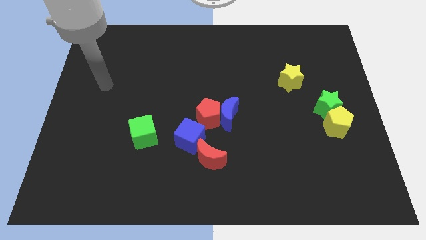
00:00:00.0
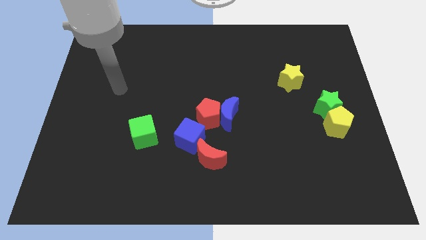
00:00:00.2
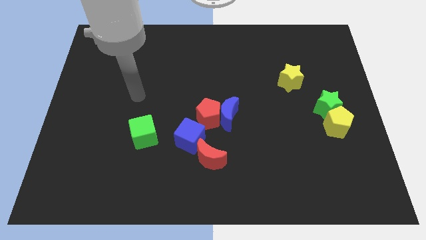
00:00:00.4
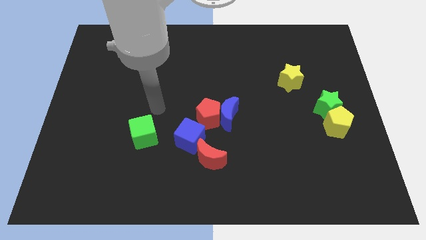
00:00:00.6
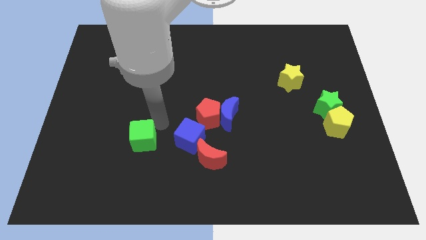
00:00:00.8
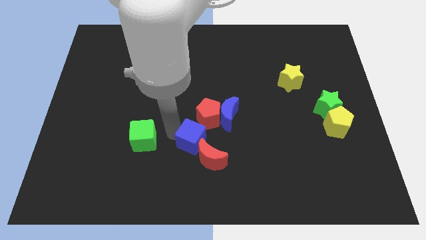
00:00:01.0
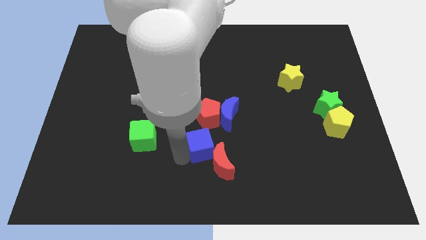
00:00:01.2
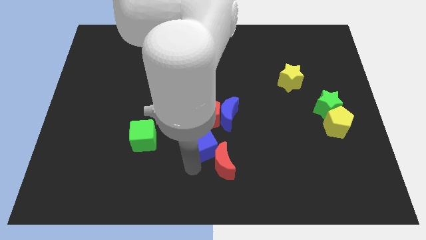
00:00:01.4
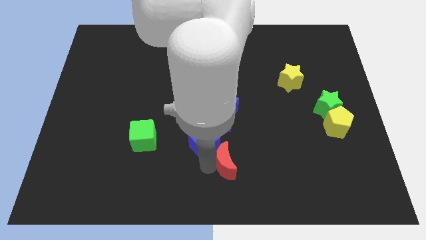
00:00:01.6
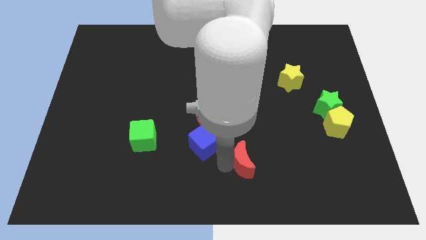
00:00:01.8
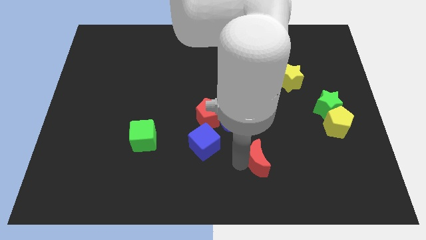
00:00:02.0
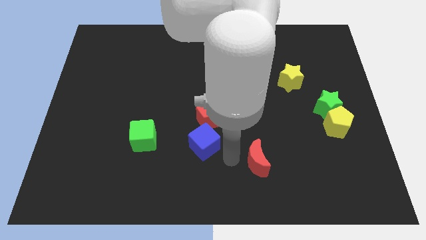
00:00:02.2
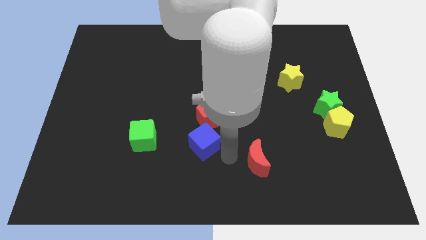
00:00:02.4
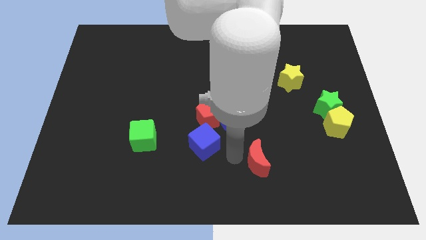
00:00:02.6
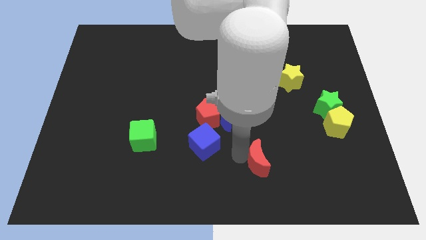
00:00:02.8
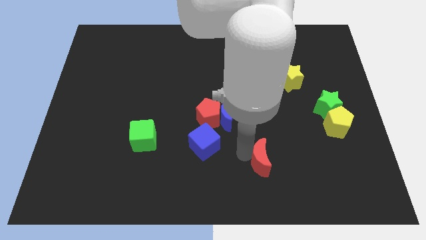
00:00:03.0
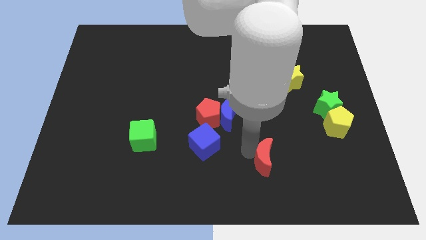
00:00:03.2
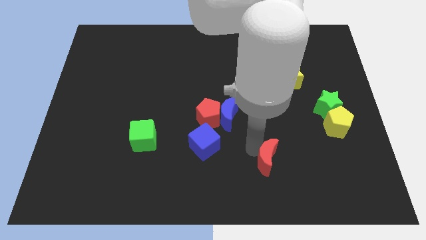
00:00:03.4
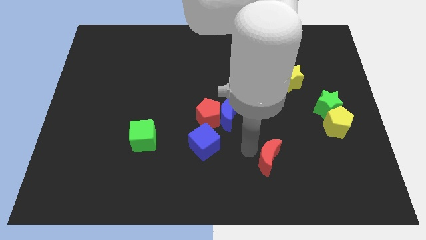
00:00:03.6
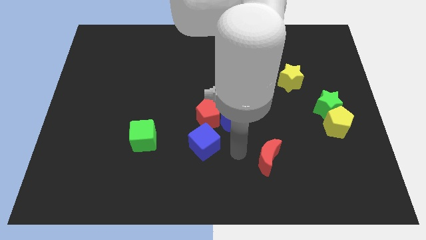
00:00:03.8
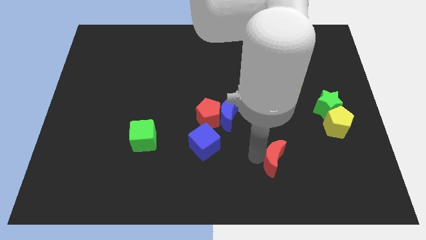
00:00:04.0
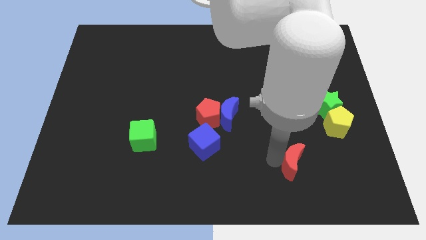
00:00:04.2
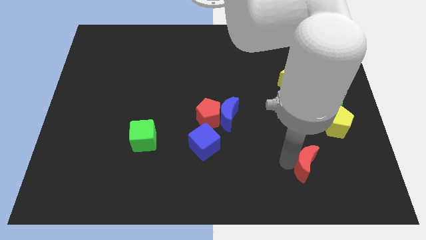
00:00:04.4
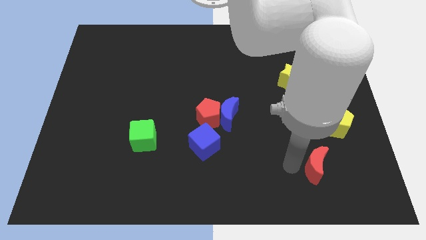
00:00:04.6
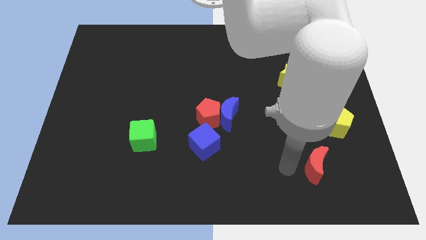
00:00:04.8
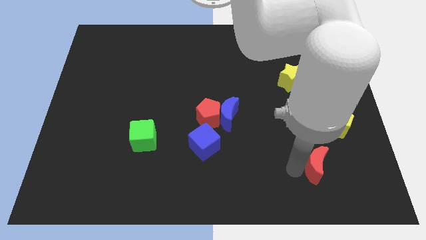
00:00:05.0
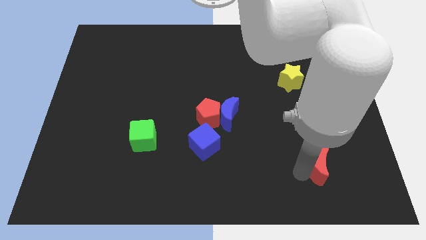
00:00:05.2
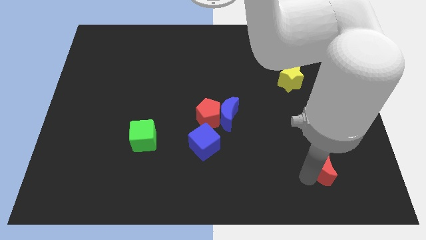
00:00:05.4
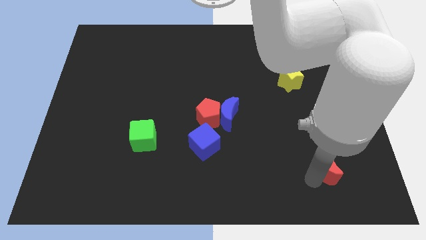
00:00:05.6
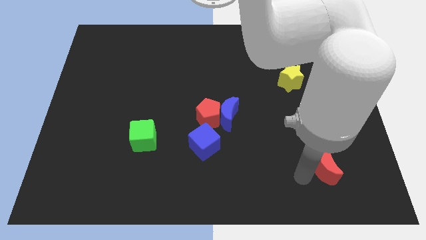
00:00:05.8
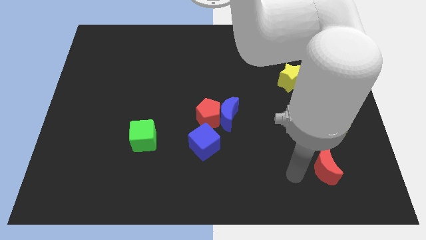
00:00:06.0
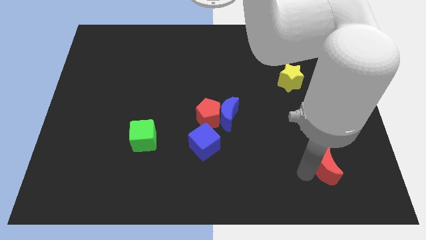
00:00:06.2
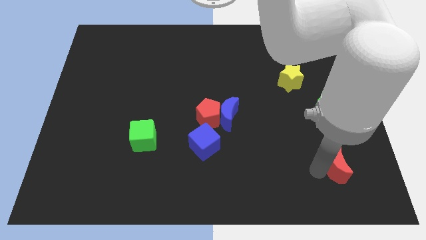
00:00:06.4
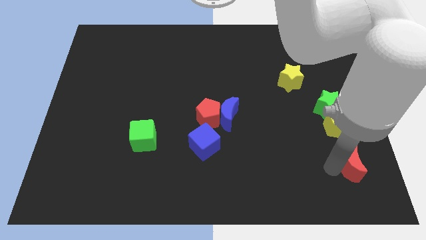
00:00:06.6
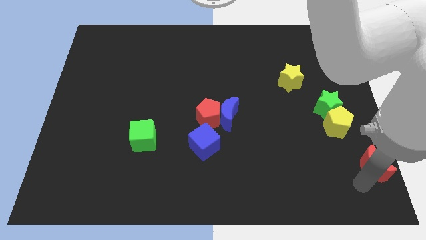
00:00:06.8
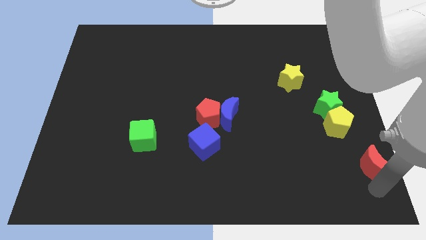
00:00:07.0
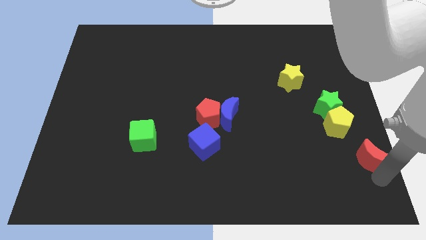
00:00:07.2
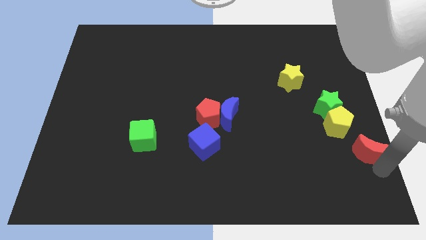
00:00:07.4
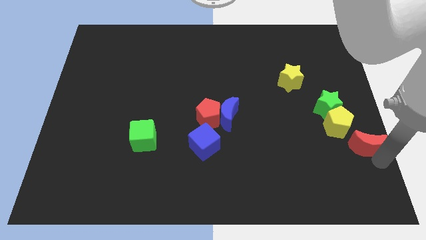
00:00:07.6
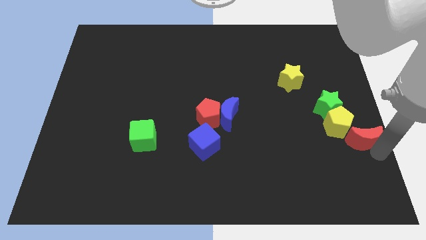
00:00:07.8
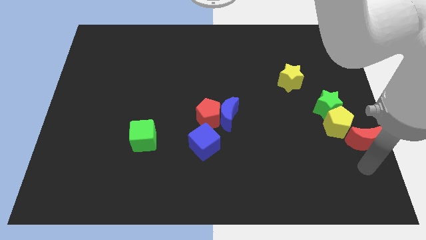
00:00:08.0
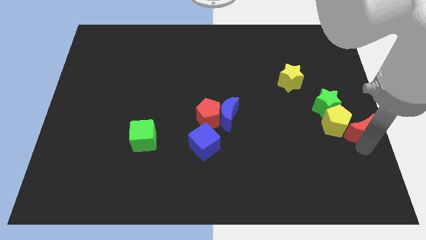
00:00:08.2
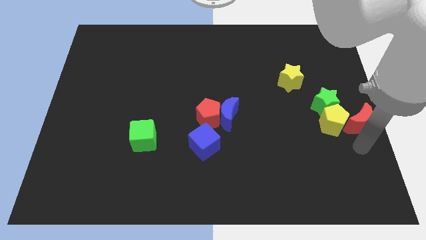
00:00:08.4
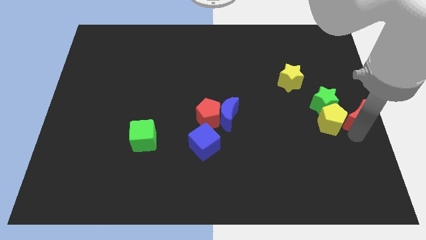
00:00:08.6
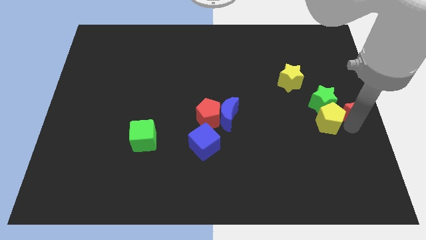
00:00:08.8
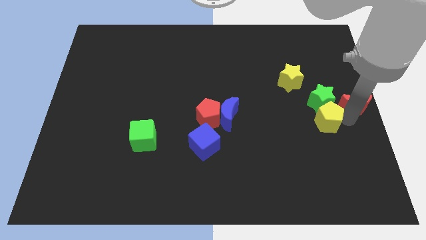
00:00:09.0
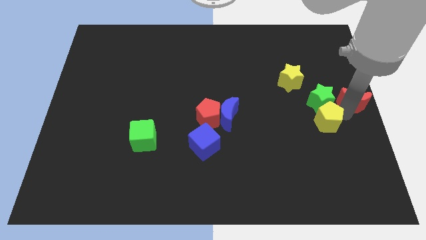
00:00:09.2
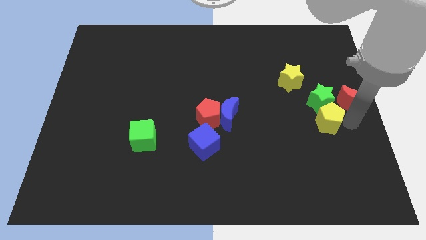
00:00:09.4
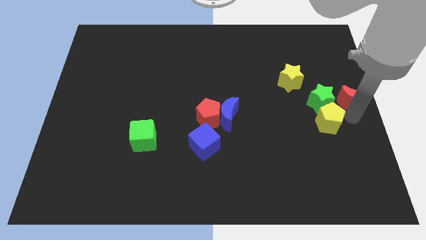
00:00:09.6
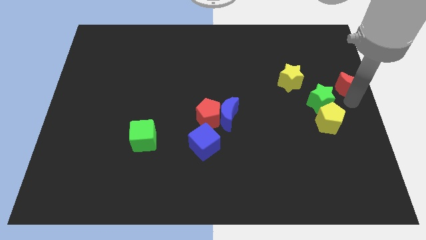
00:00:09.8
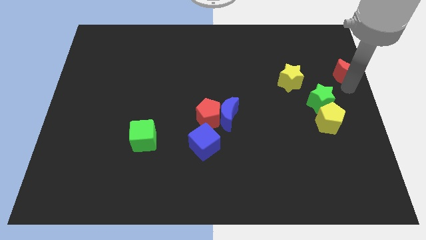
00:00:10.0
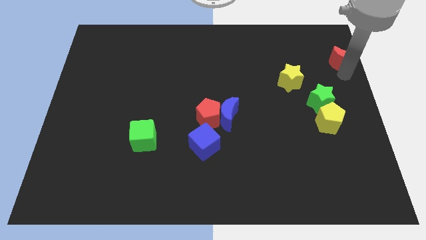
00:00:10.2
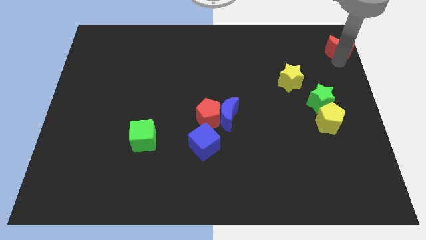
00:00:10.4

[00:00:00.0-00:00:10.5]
move the red moon to the top right of the board
